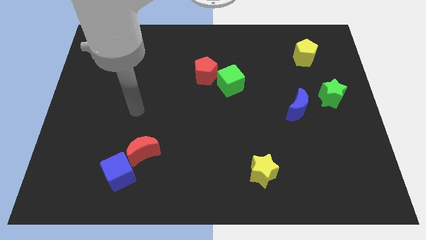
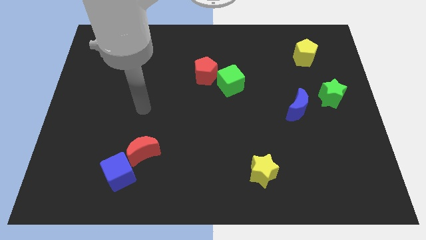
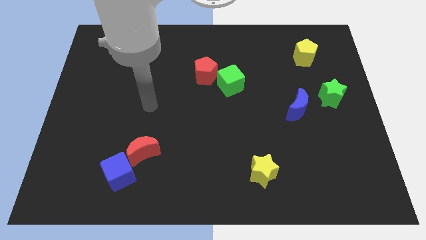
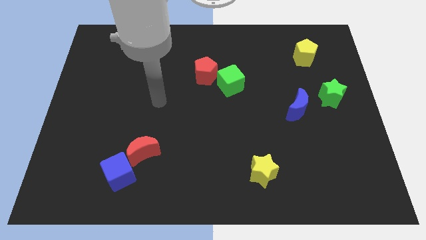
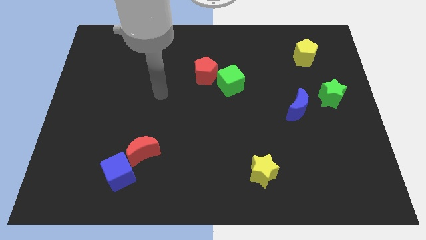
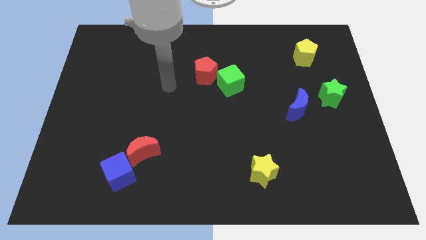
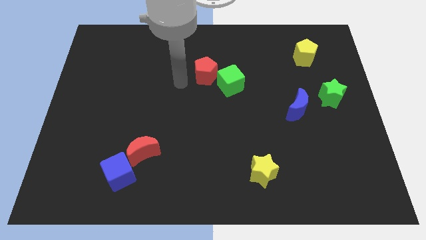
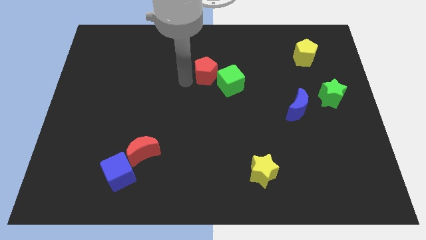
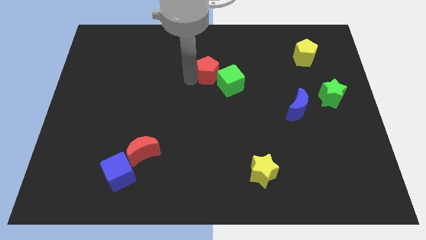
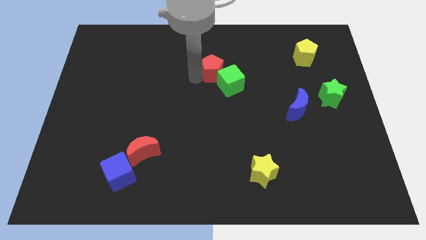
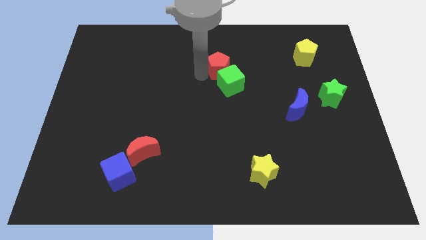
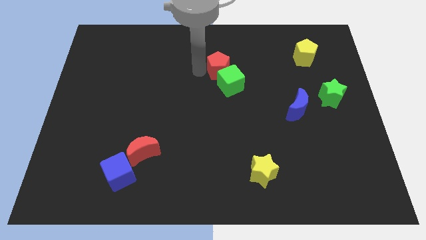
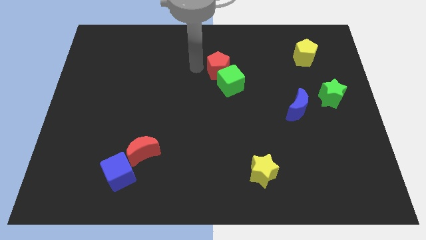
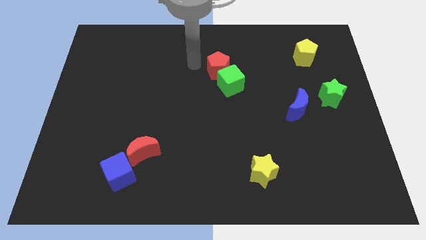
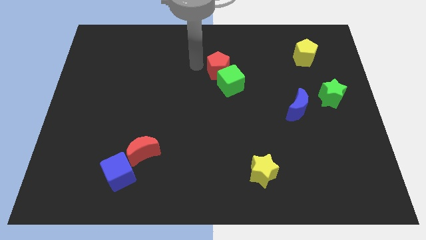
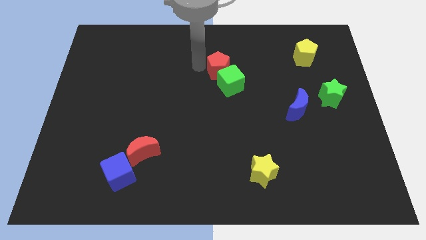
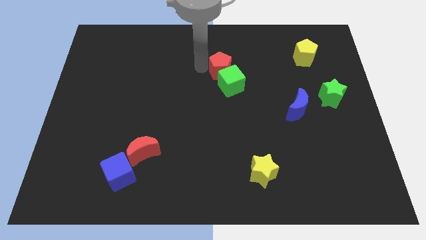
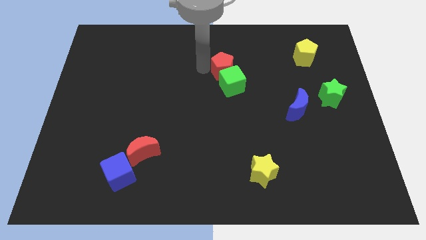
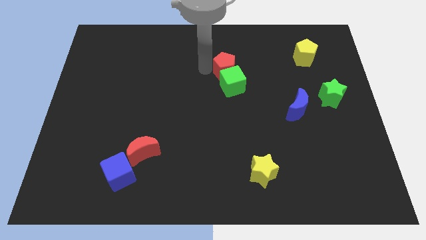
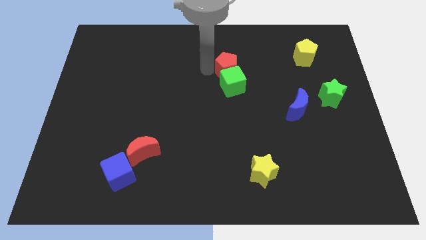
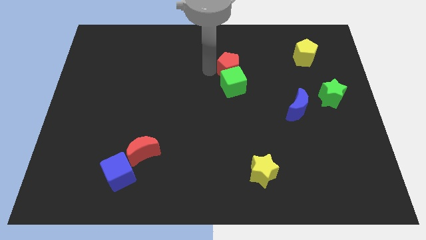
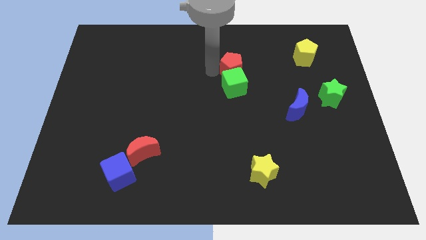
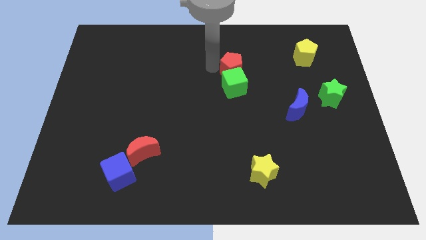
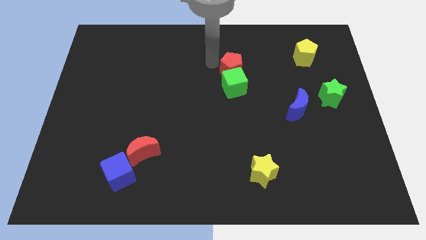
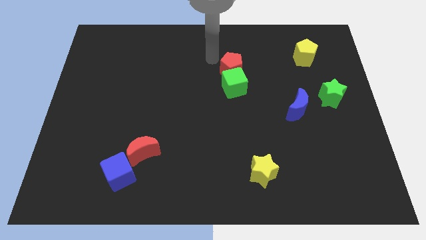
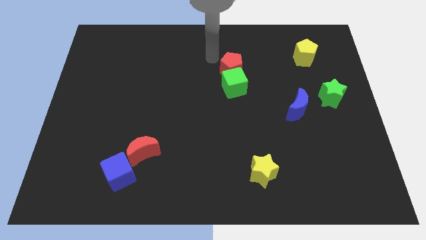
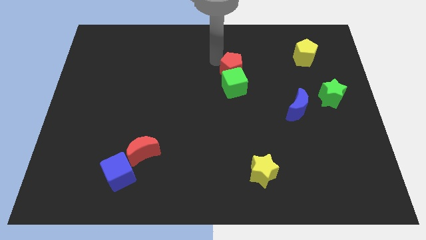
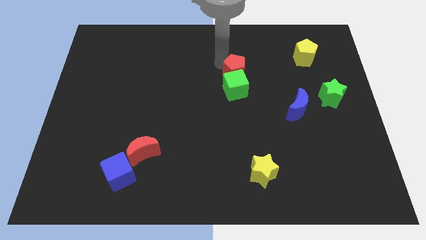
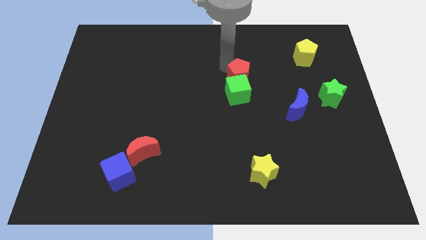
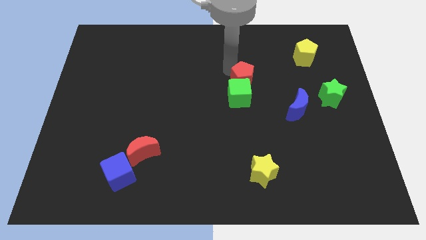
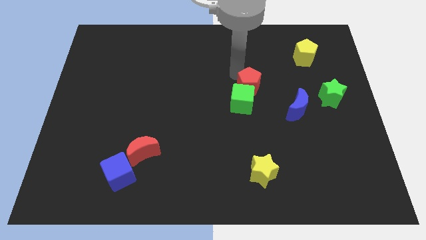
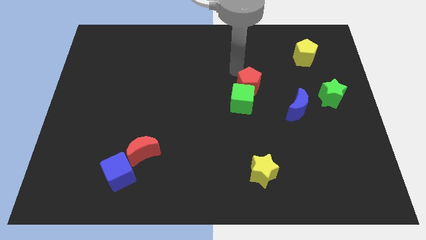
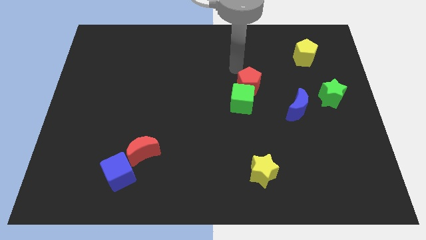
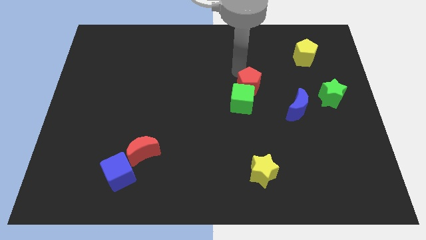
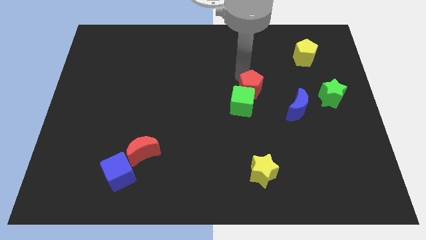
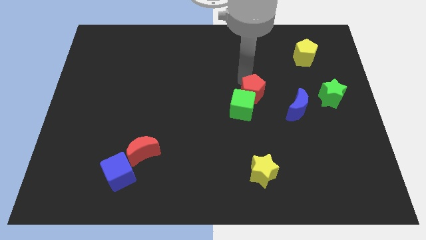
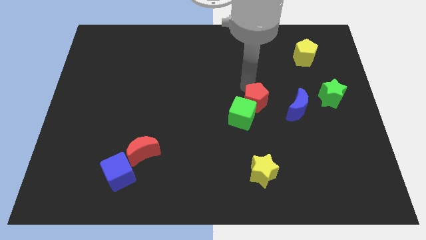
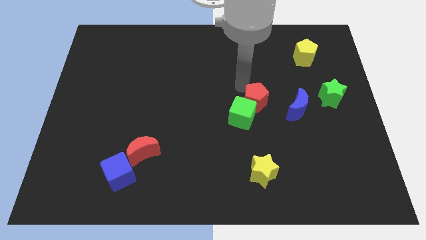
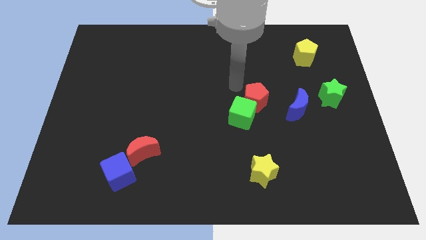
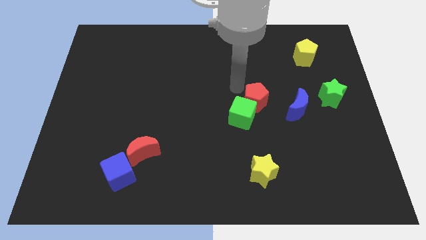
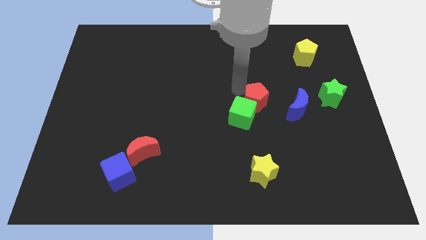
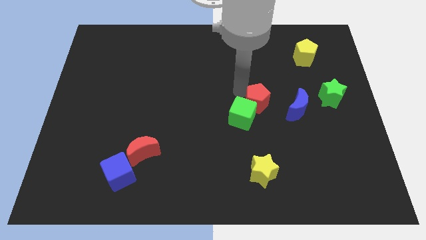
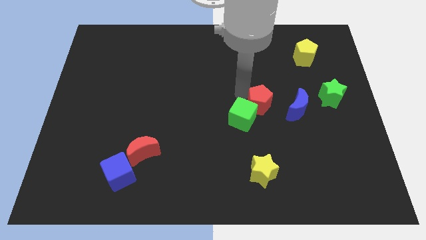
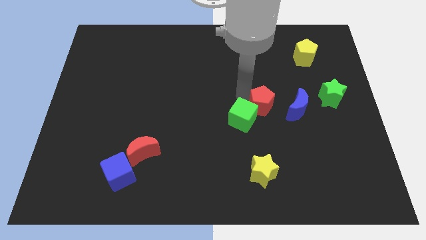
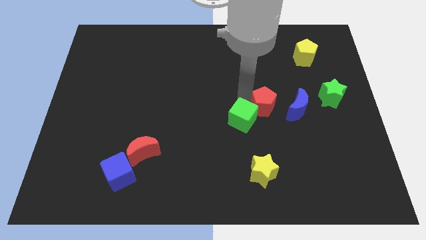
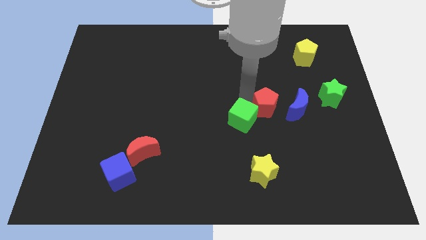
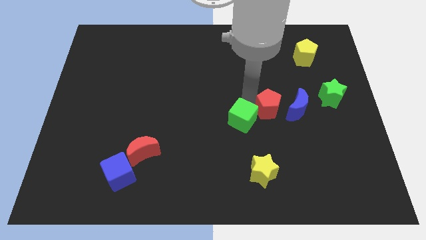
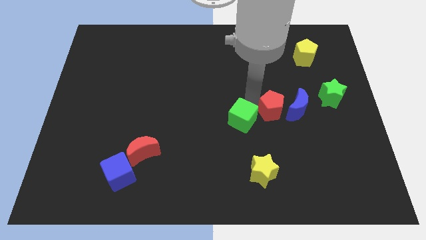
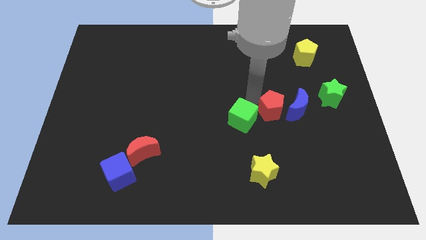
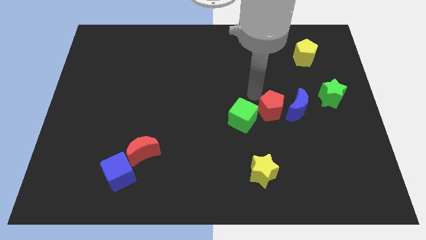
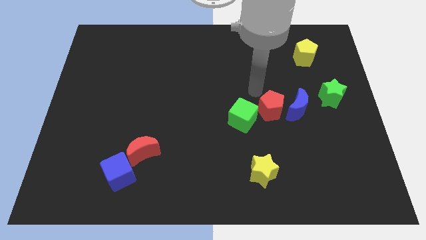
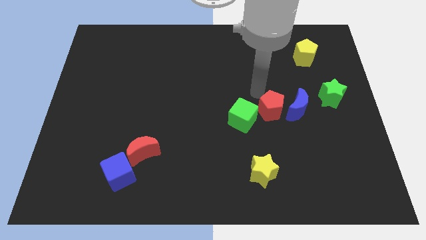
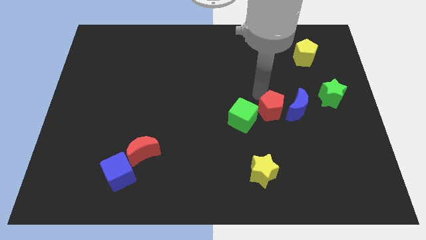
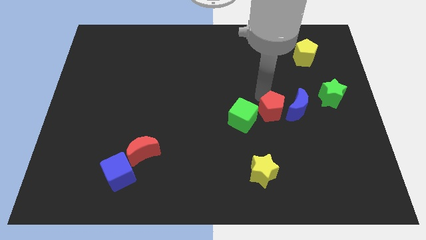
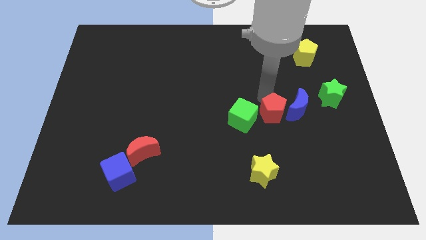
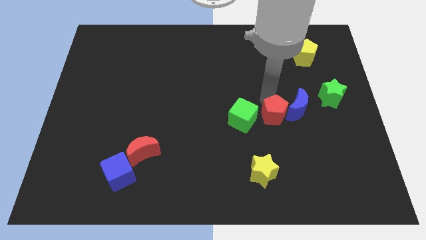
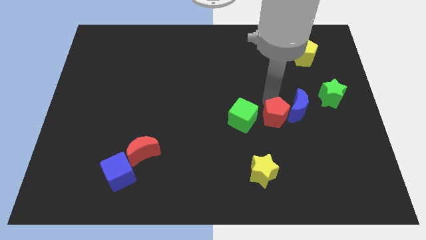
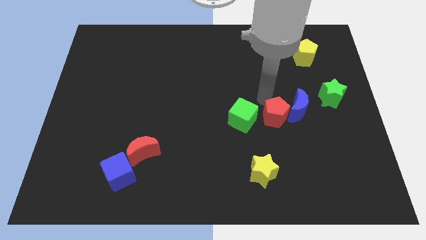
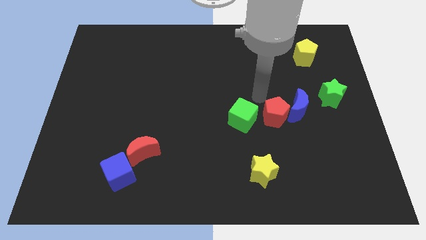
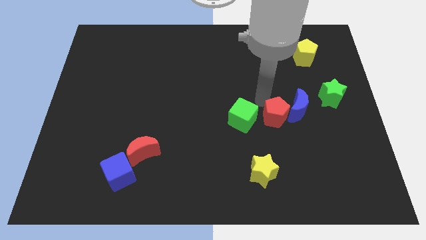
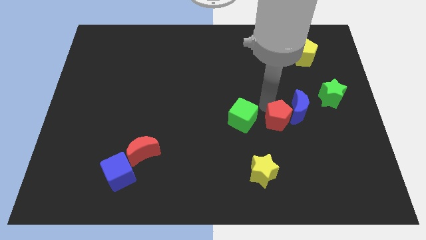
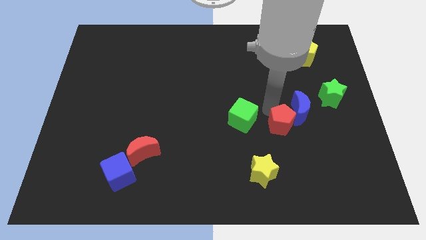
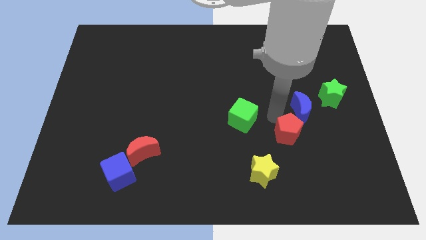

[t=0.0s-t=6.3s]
slide the red pentagon below the blue moon

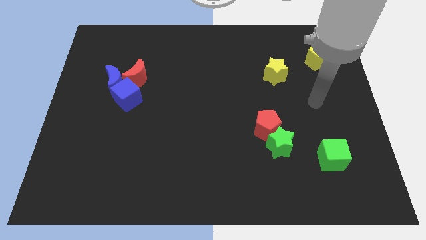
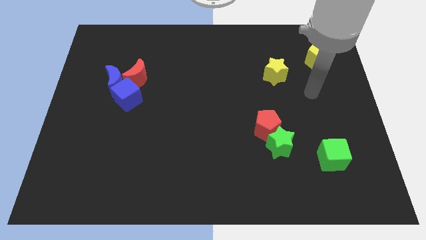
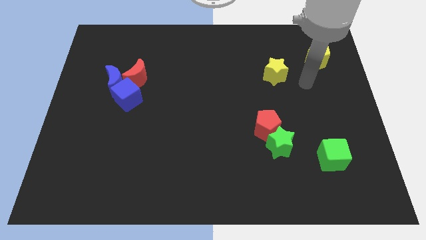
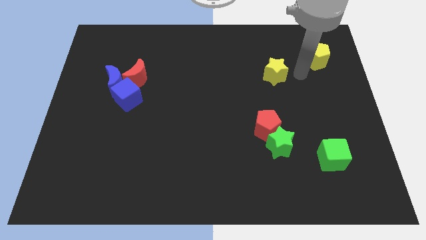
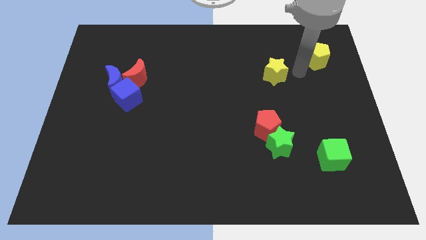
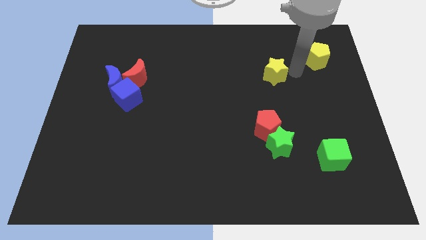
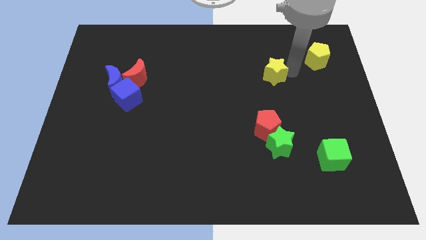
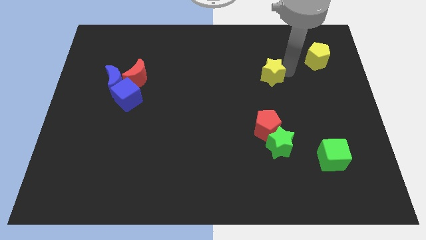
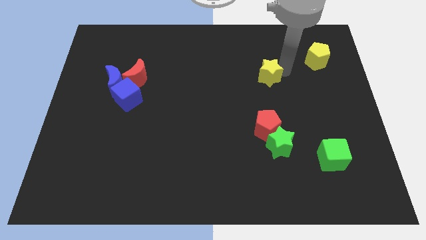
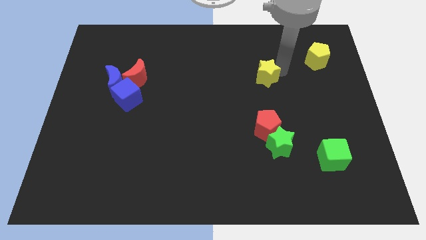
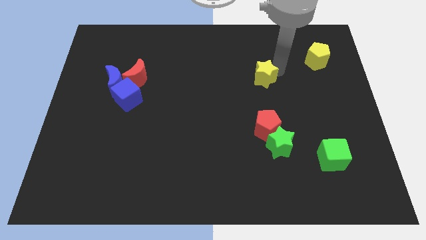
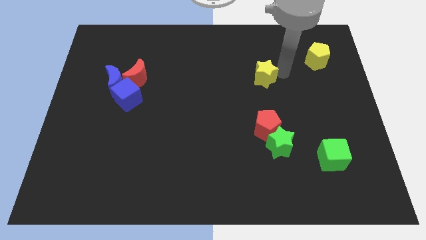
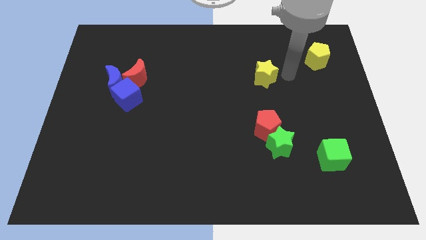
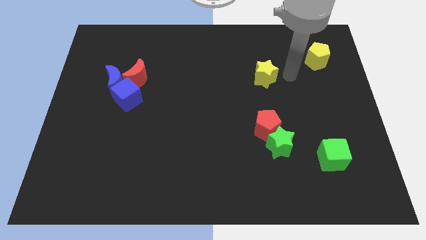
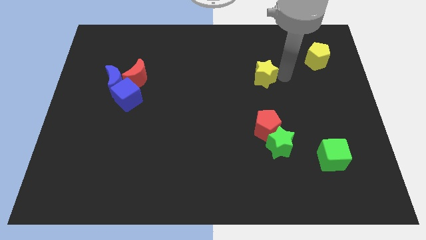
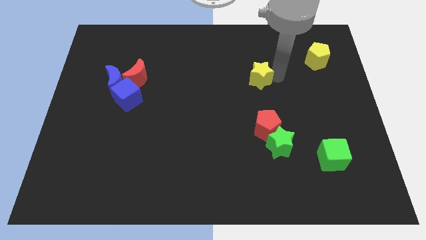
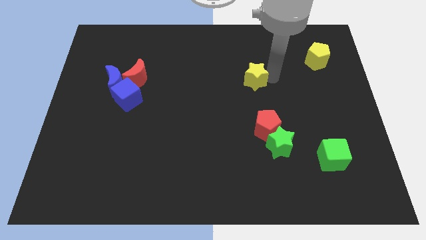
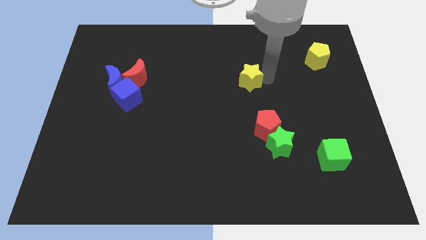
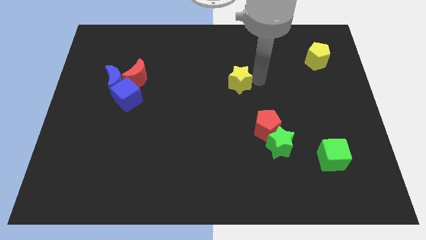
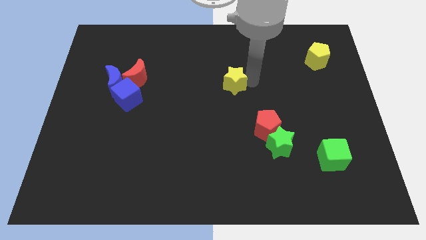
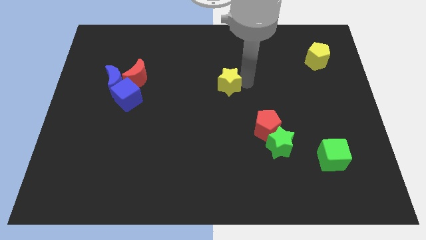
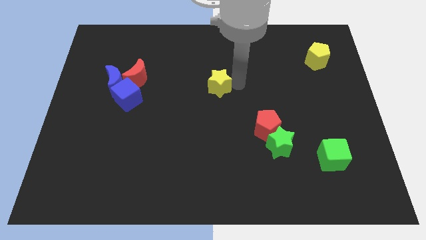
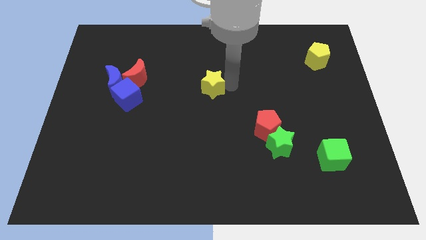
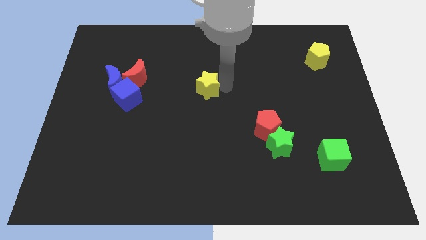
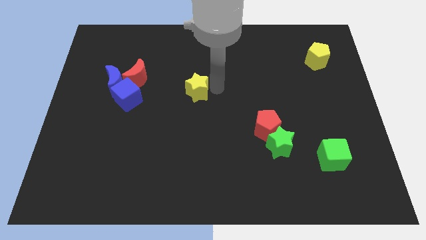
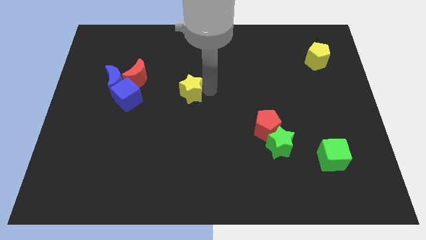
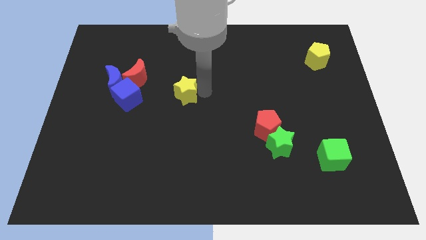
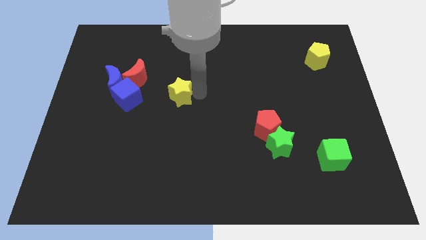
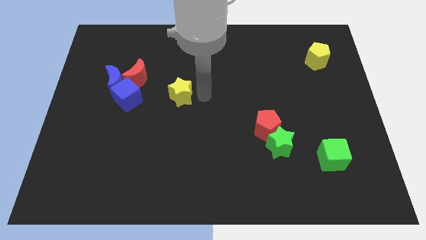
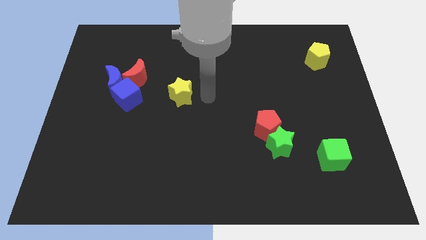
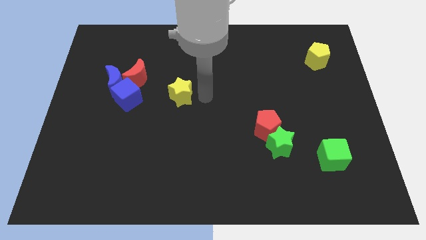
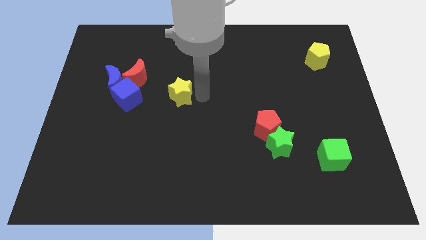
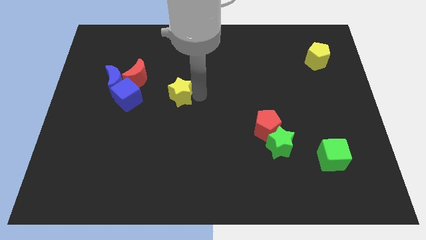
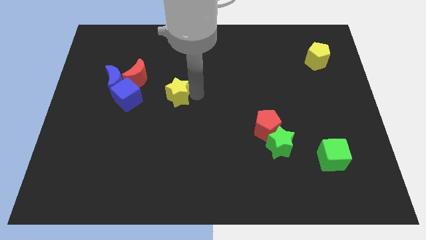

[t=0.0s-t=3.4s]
slide the yellow star diagonally down and to the right of the red moon
